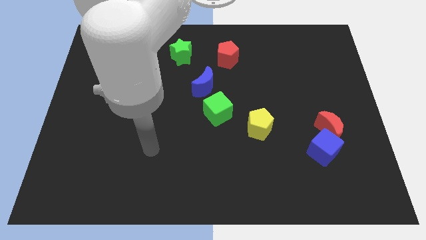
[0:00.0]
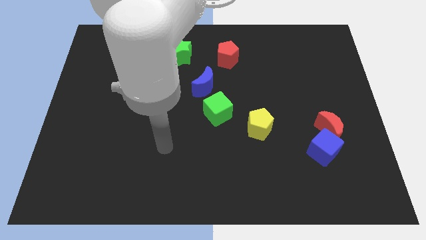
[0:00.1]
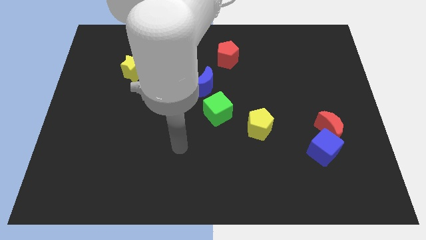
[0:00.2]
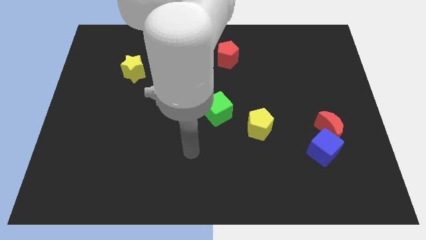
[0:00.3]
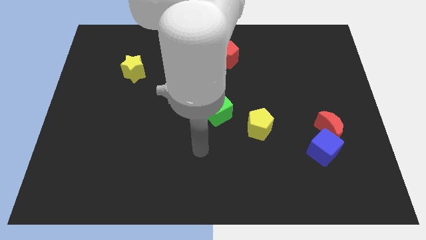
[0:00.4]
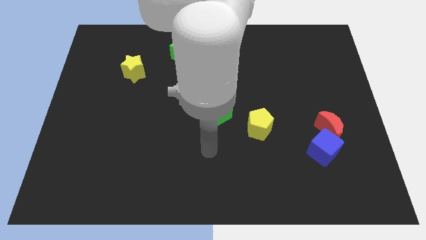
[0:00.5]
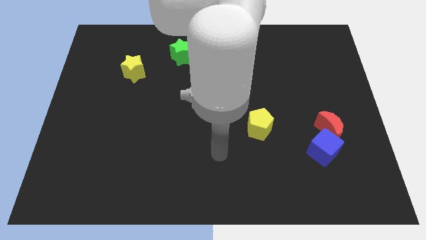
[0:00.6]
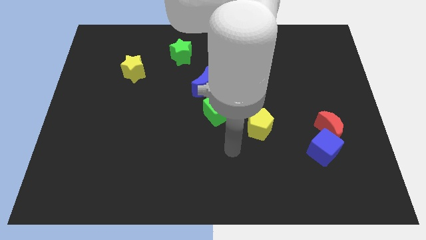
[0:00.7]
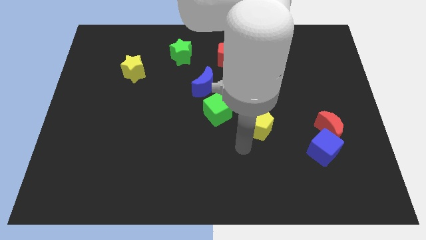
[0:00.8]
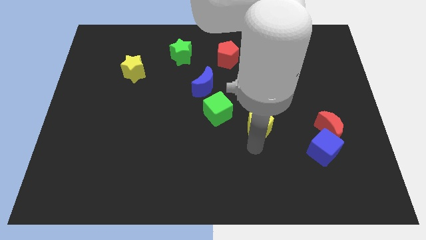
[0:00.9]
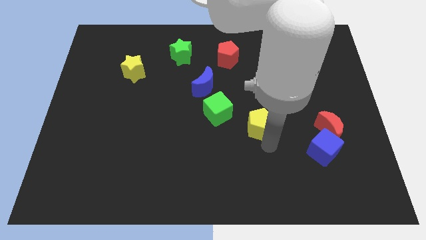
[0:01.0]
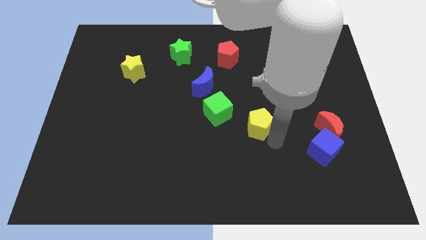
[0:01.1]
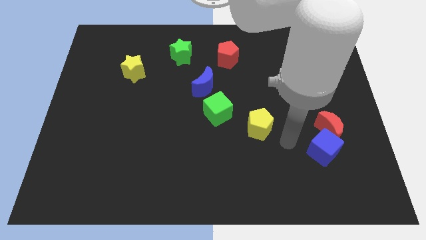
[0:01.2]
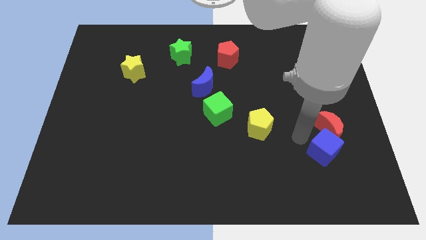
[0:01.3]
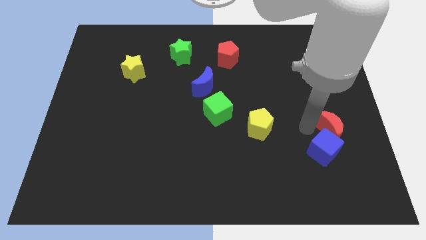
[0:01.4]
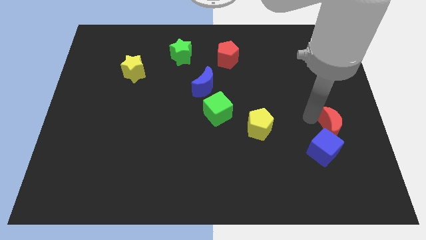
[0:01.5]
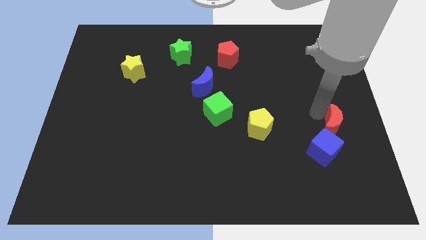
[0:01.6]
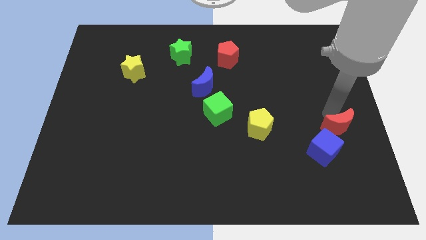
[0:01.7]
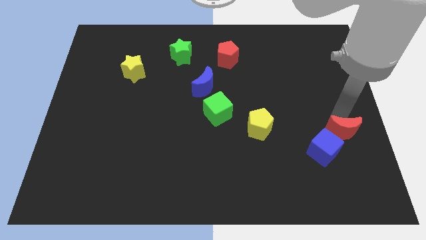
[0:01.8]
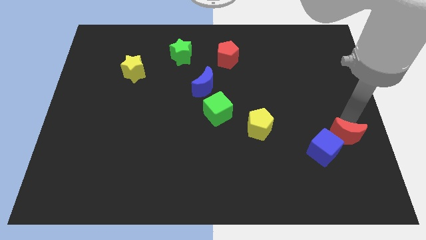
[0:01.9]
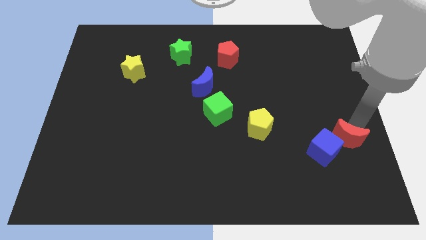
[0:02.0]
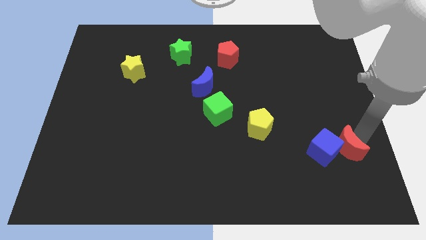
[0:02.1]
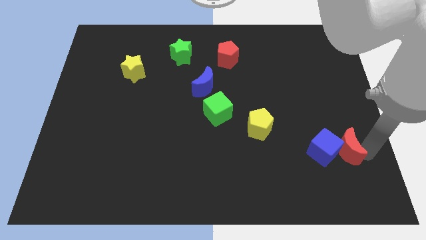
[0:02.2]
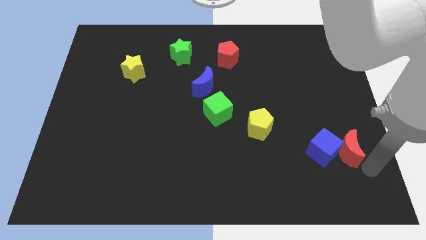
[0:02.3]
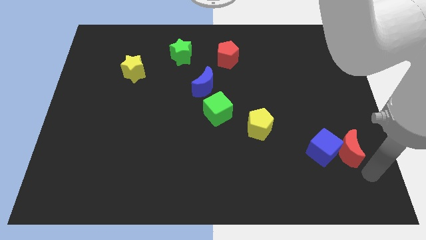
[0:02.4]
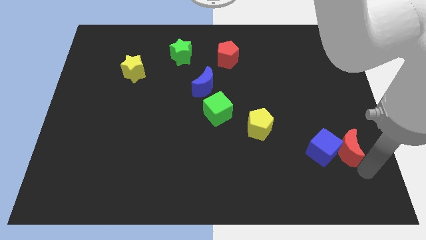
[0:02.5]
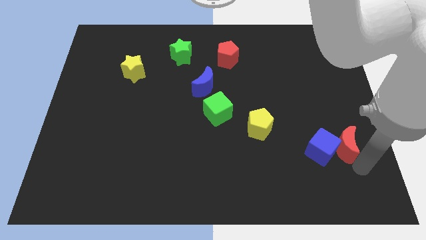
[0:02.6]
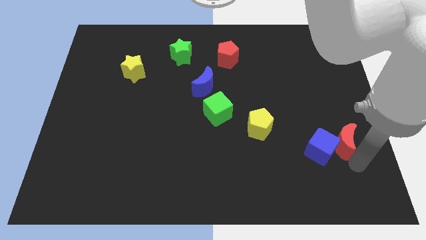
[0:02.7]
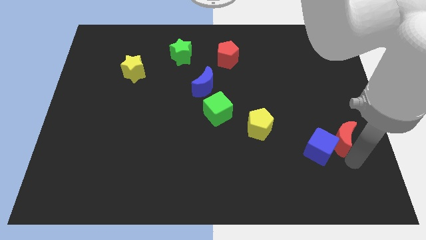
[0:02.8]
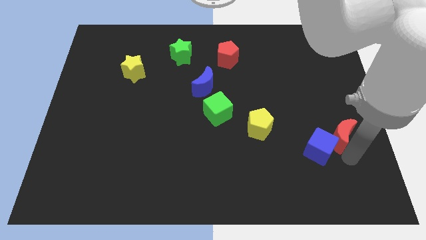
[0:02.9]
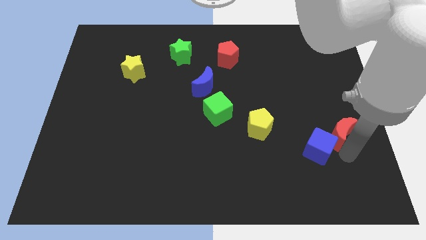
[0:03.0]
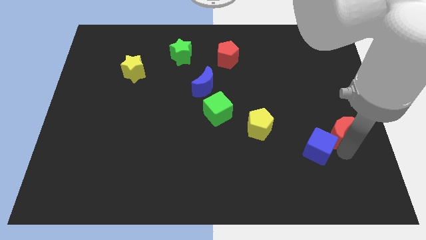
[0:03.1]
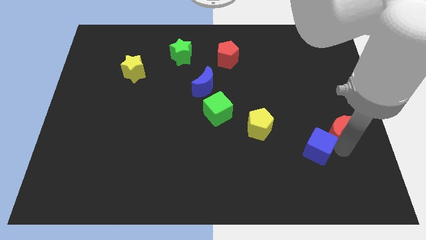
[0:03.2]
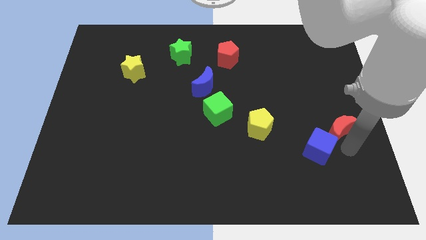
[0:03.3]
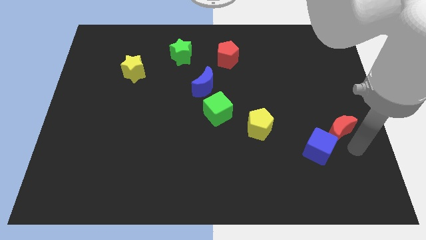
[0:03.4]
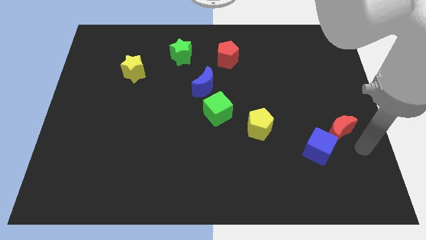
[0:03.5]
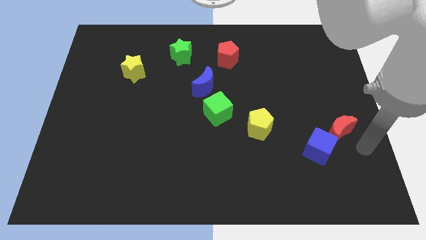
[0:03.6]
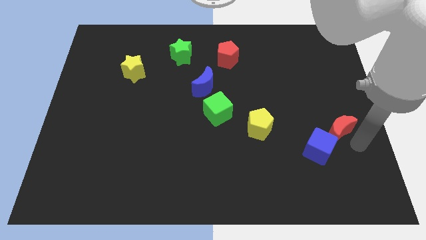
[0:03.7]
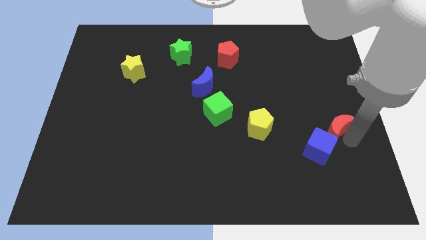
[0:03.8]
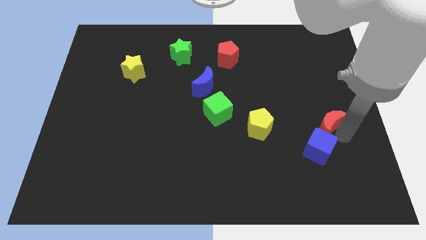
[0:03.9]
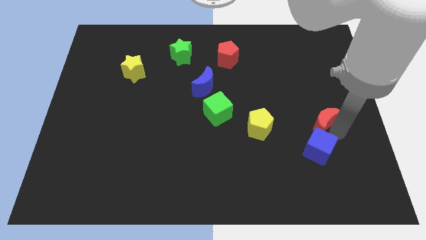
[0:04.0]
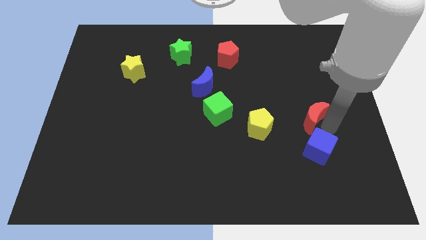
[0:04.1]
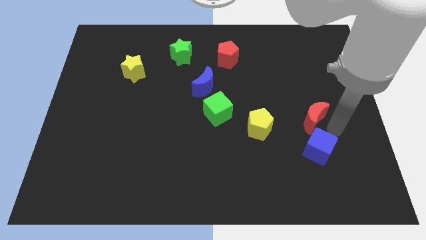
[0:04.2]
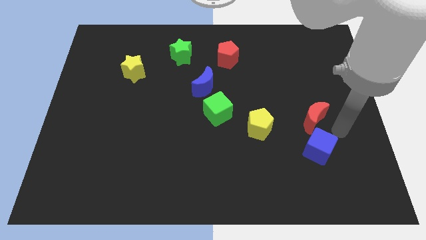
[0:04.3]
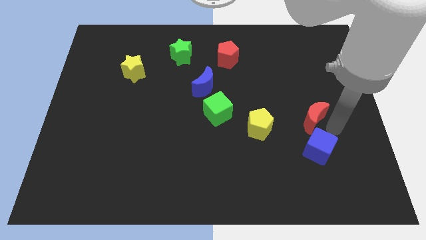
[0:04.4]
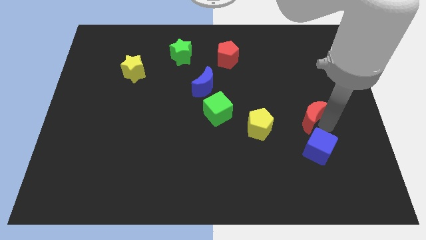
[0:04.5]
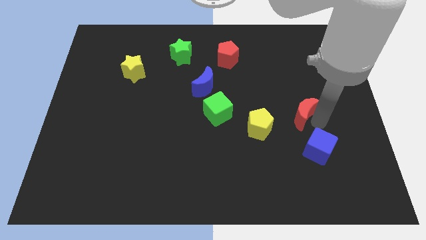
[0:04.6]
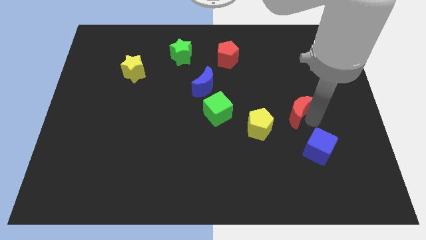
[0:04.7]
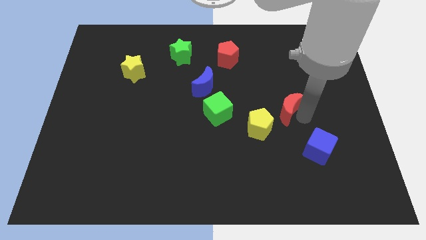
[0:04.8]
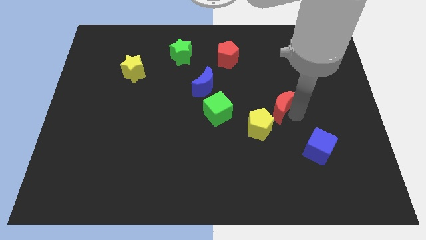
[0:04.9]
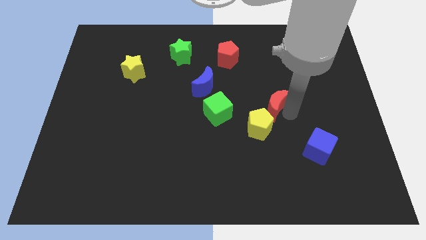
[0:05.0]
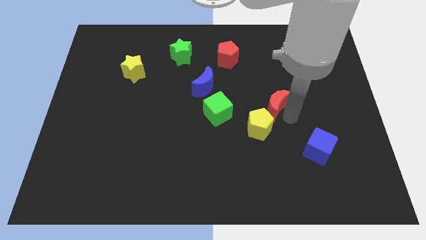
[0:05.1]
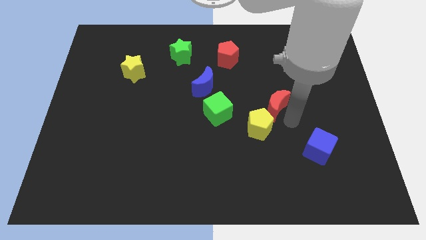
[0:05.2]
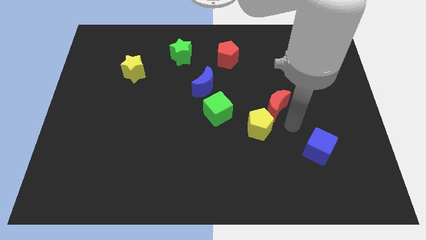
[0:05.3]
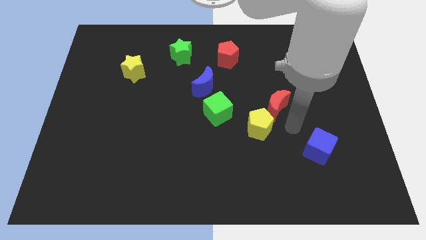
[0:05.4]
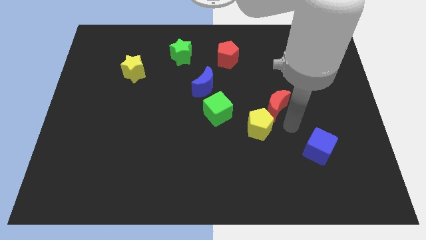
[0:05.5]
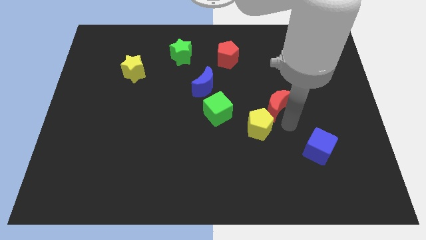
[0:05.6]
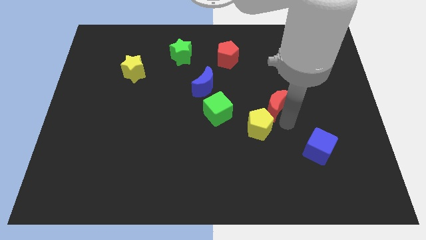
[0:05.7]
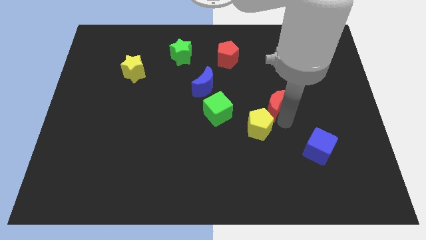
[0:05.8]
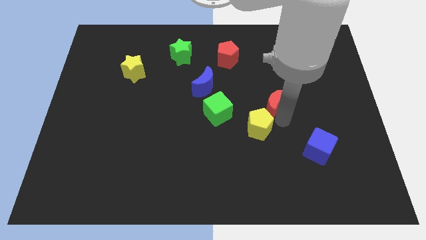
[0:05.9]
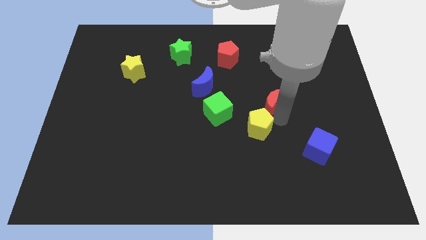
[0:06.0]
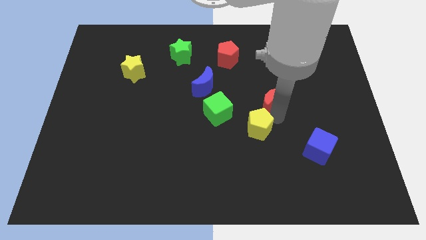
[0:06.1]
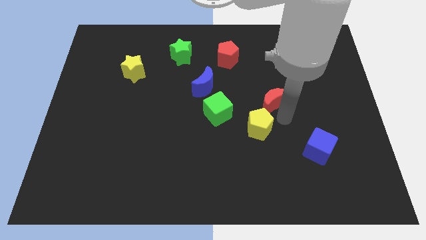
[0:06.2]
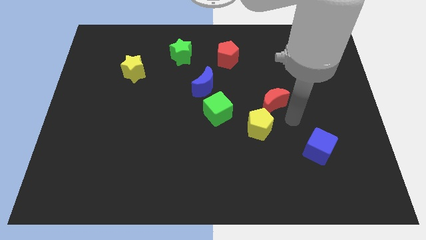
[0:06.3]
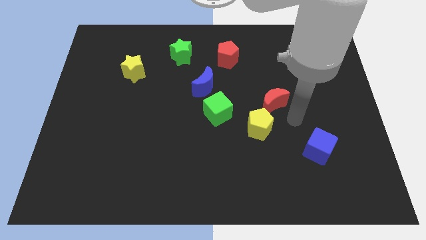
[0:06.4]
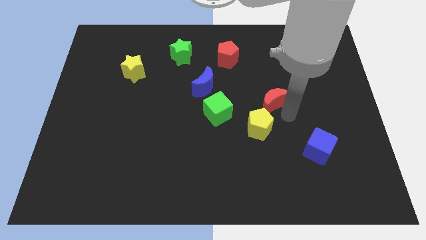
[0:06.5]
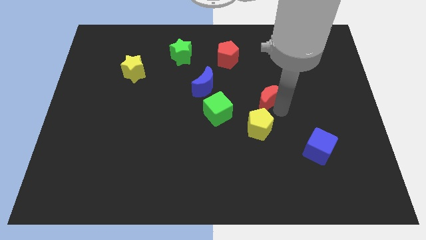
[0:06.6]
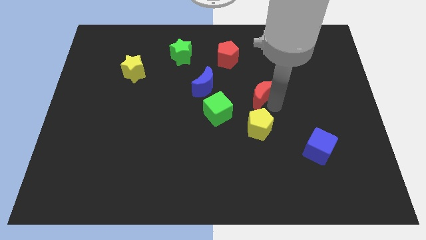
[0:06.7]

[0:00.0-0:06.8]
slide the red moon to the right side of the blue moon

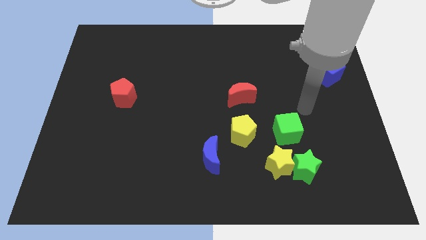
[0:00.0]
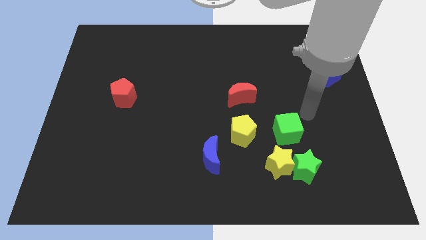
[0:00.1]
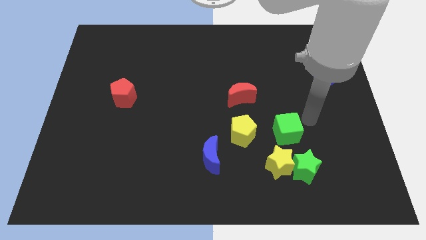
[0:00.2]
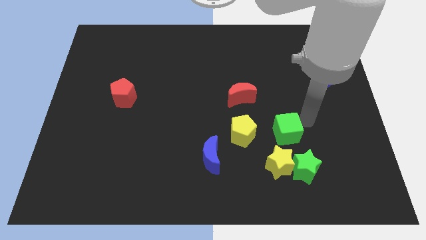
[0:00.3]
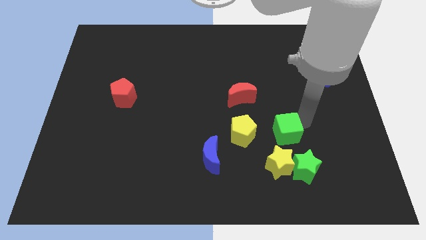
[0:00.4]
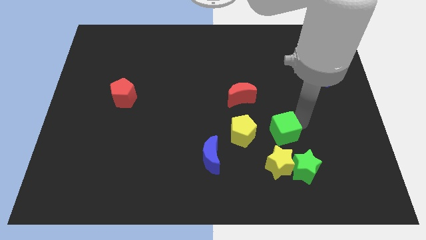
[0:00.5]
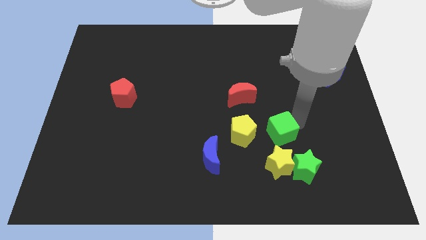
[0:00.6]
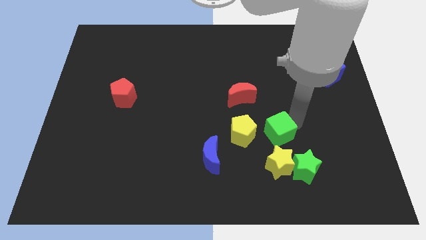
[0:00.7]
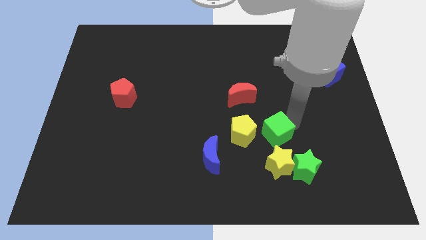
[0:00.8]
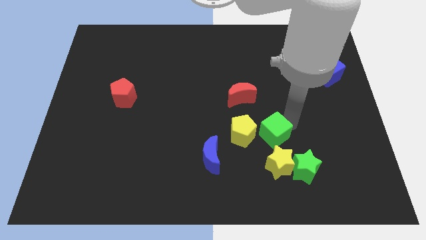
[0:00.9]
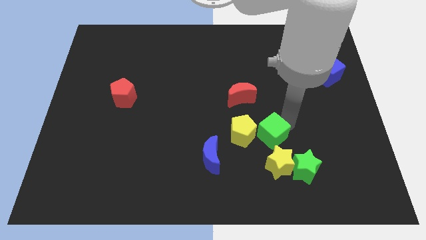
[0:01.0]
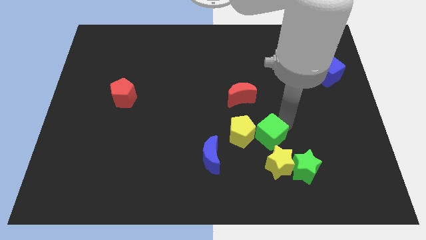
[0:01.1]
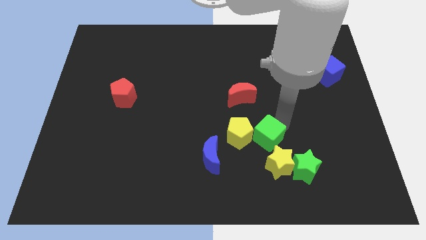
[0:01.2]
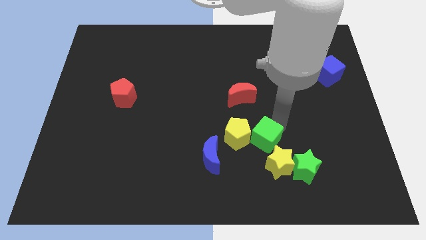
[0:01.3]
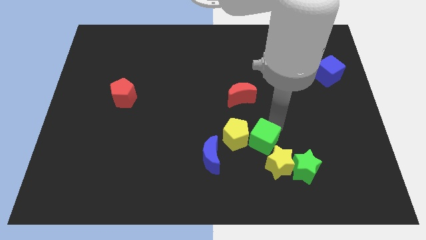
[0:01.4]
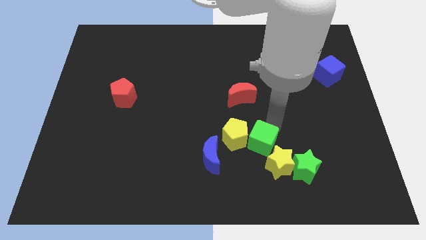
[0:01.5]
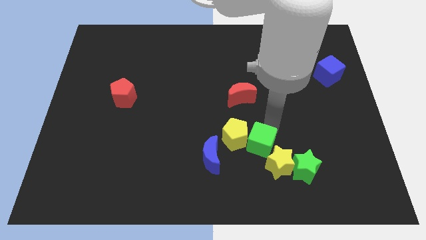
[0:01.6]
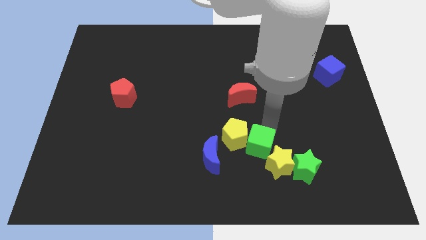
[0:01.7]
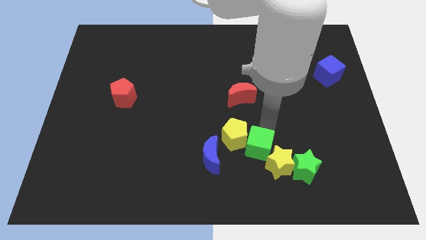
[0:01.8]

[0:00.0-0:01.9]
push the green cube just left of the yellow star
